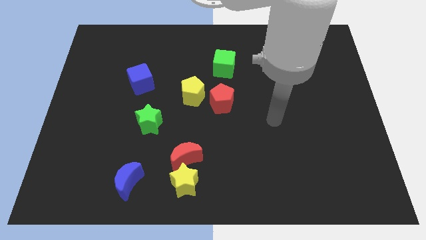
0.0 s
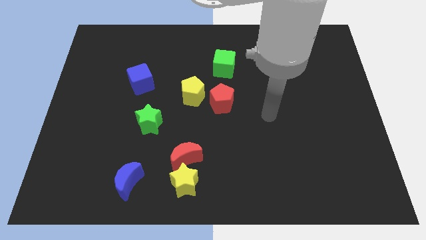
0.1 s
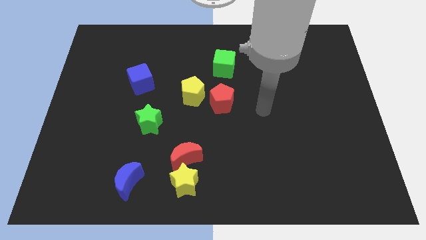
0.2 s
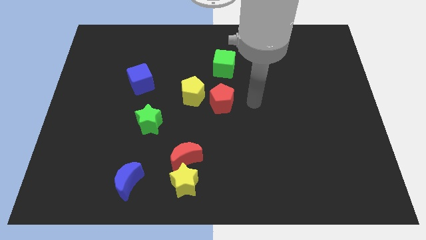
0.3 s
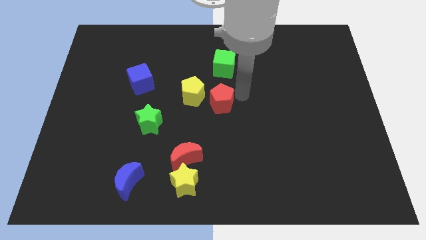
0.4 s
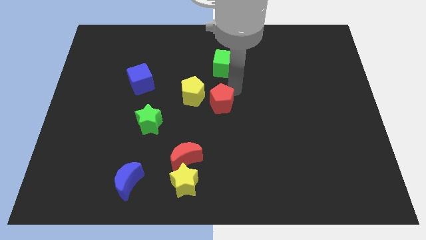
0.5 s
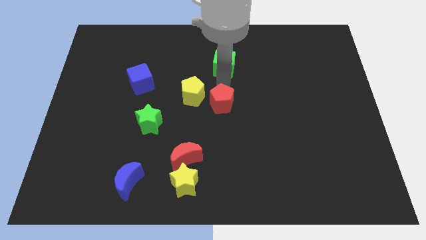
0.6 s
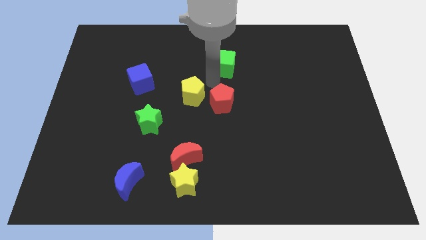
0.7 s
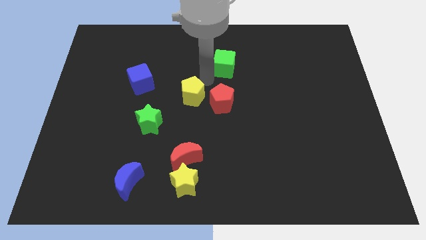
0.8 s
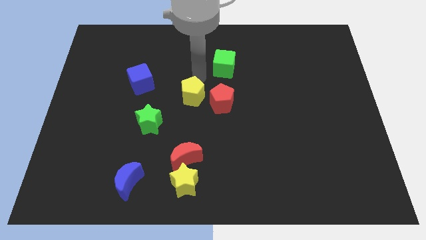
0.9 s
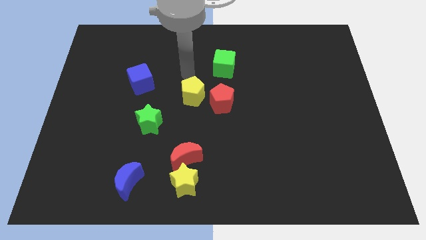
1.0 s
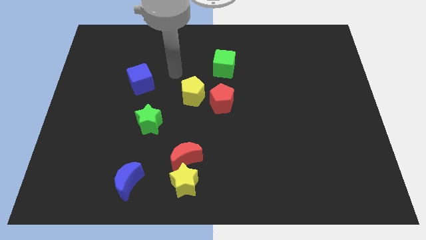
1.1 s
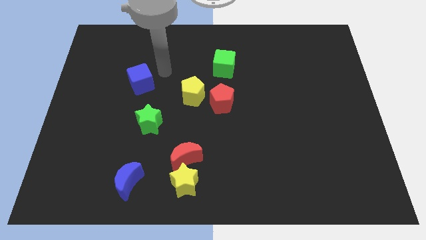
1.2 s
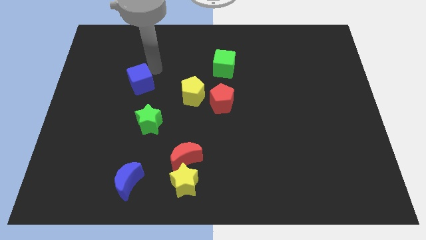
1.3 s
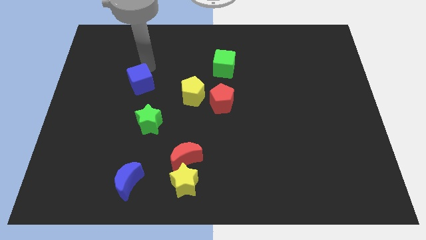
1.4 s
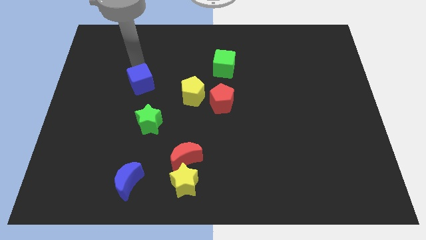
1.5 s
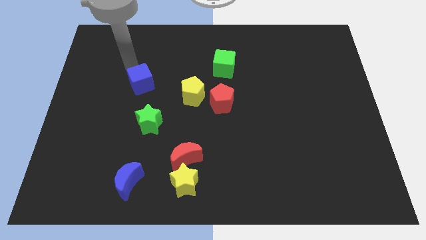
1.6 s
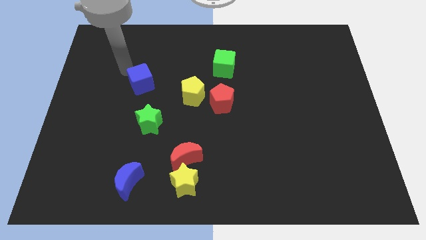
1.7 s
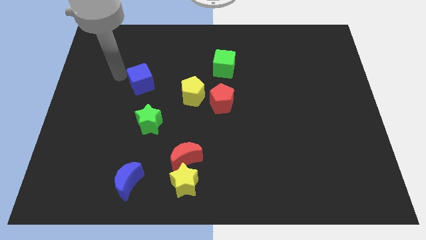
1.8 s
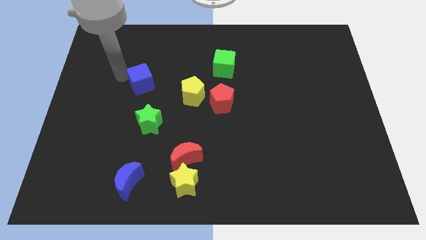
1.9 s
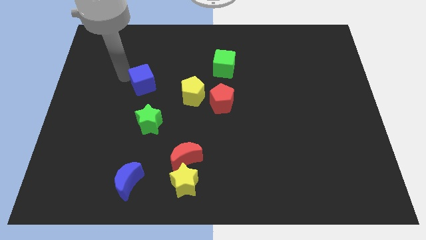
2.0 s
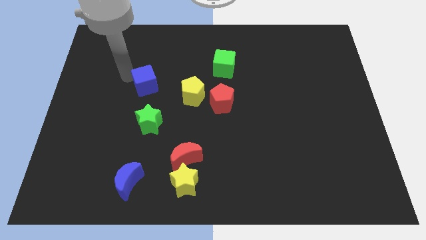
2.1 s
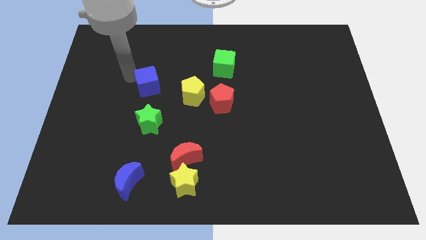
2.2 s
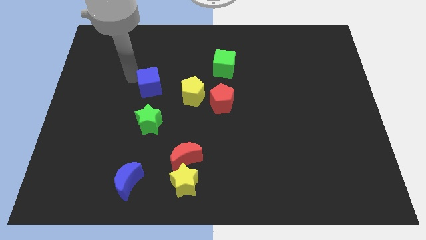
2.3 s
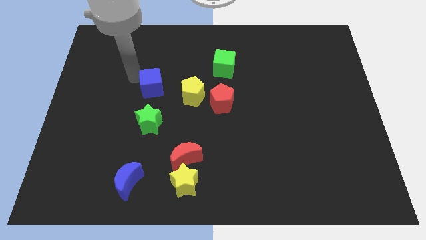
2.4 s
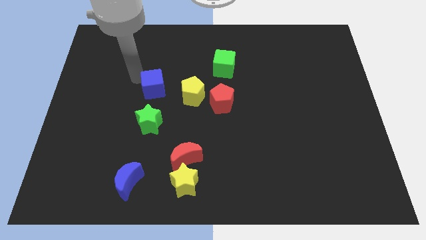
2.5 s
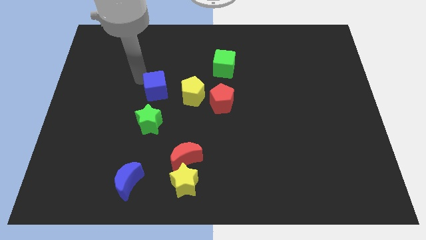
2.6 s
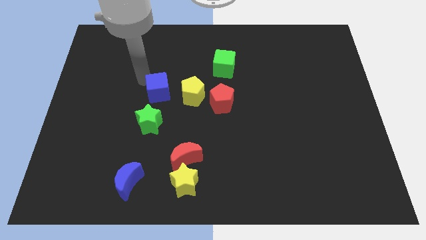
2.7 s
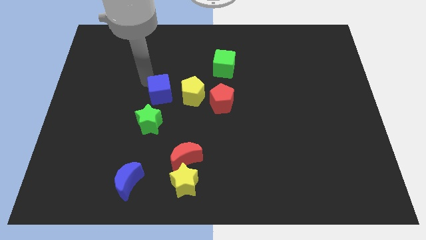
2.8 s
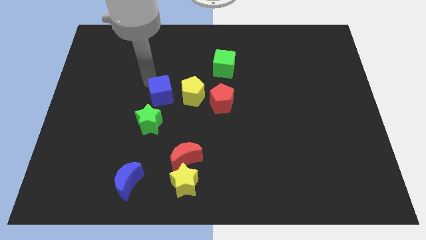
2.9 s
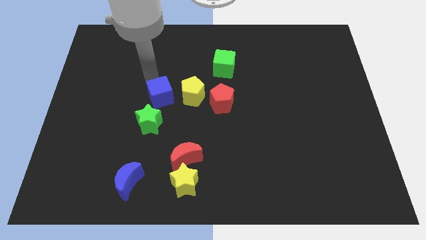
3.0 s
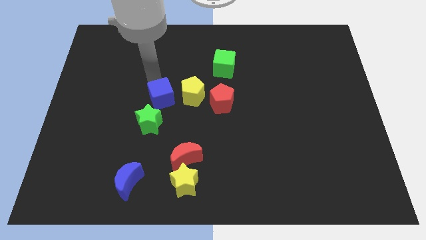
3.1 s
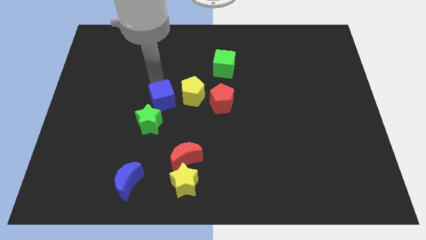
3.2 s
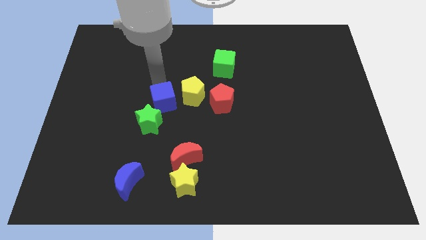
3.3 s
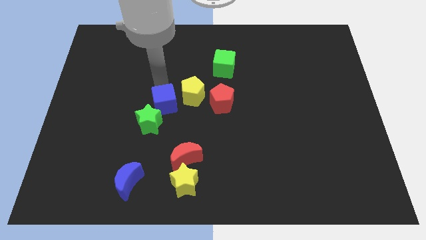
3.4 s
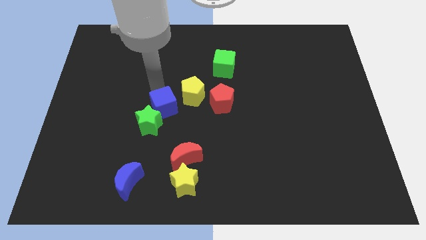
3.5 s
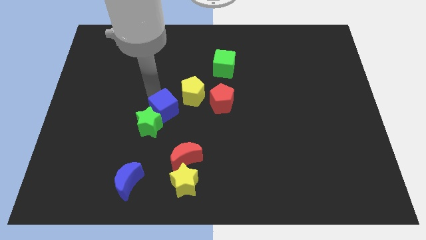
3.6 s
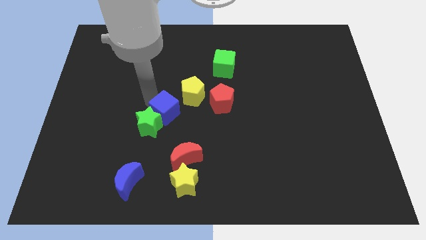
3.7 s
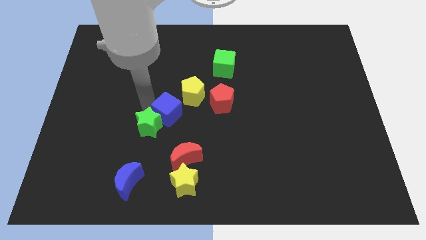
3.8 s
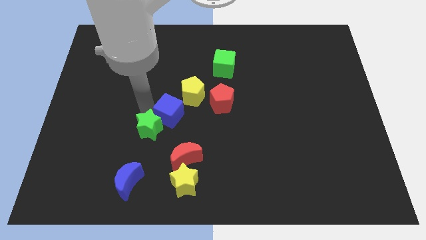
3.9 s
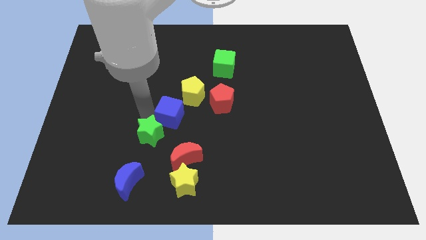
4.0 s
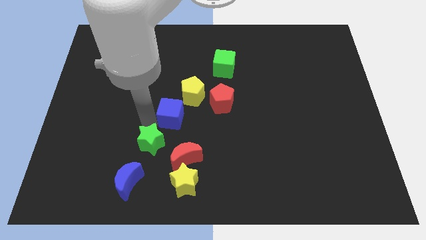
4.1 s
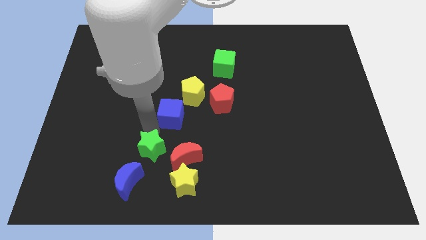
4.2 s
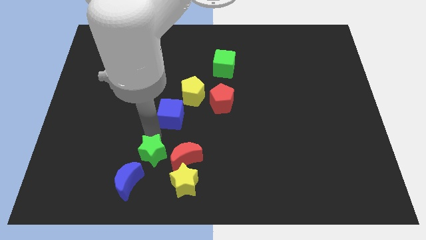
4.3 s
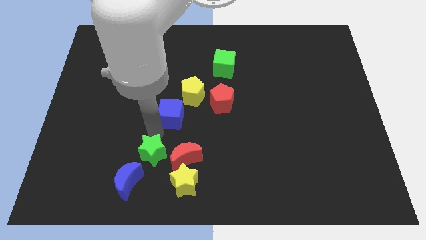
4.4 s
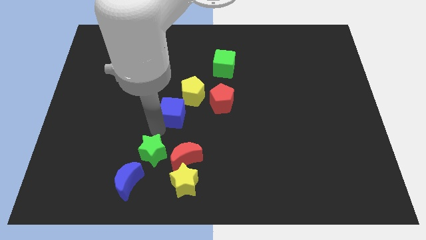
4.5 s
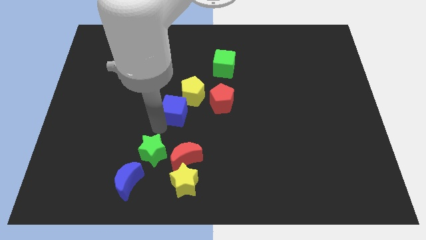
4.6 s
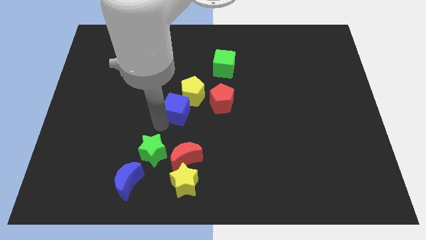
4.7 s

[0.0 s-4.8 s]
put the blue cube next to the yellow pentagon

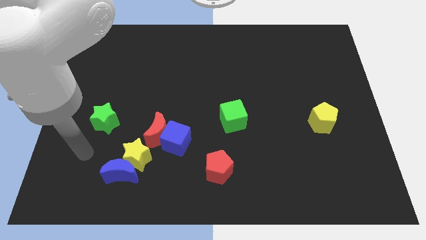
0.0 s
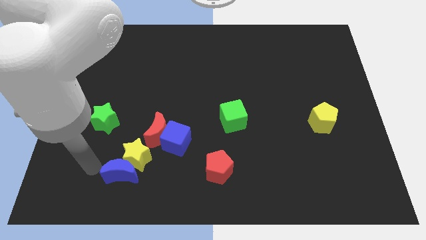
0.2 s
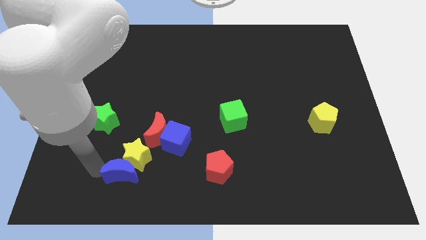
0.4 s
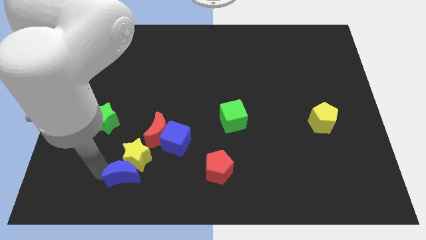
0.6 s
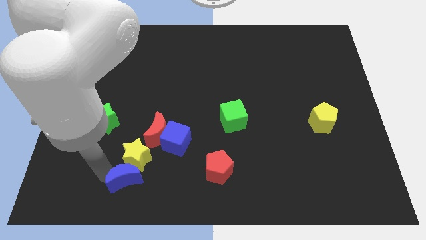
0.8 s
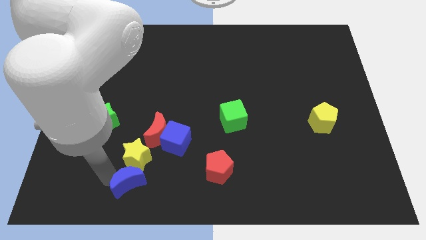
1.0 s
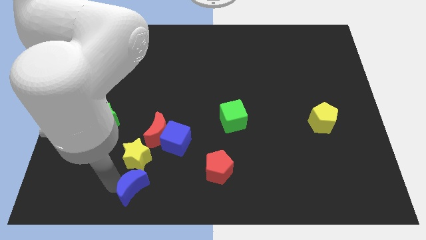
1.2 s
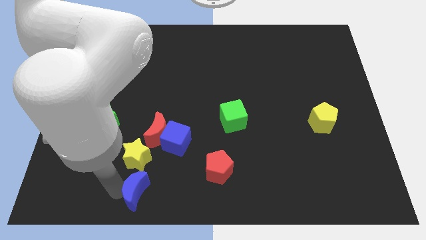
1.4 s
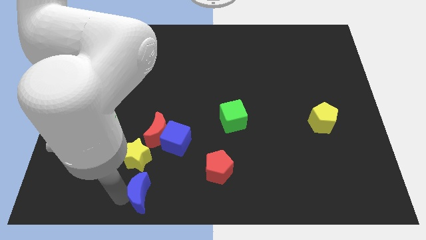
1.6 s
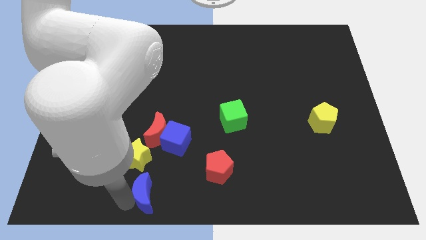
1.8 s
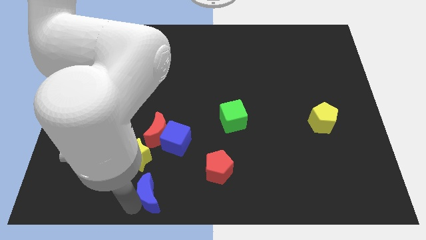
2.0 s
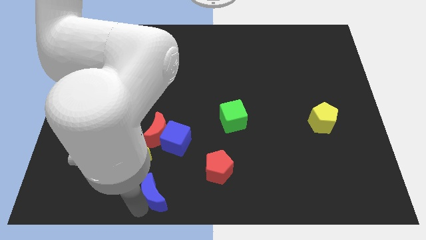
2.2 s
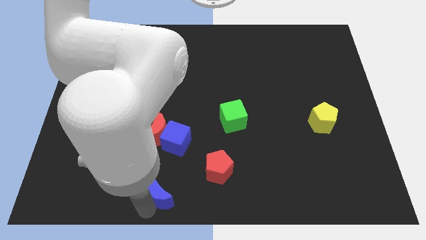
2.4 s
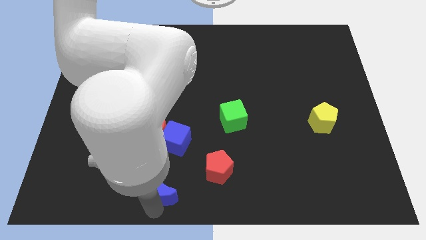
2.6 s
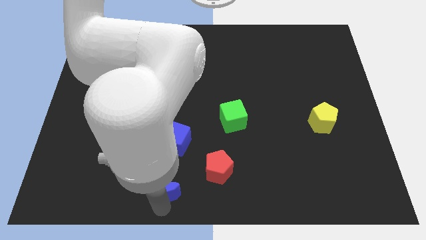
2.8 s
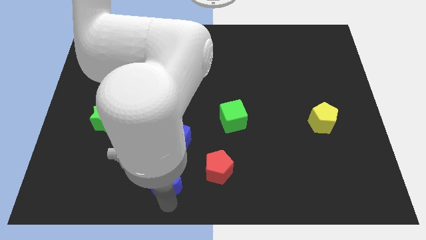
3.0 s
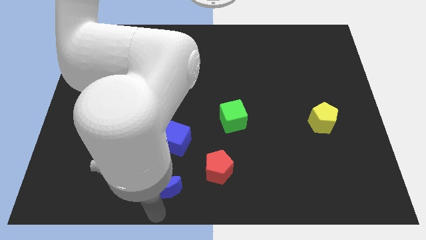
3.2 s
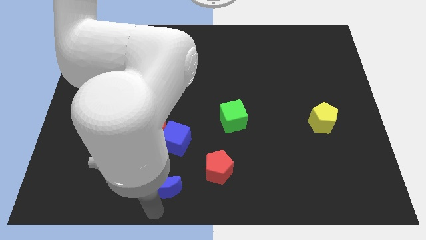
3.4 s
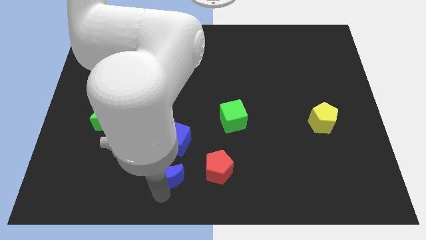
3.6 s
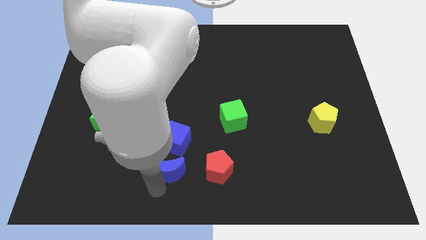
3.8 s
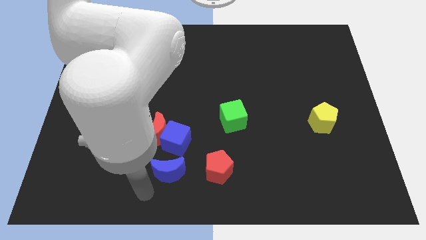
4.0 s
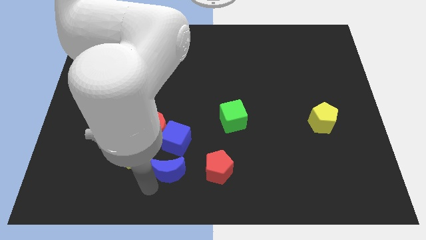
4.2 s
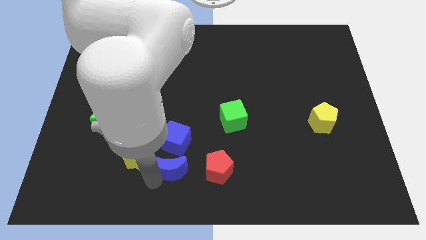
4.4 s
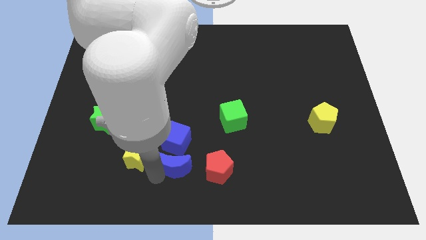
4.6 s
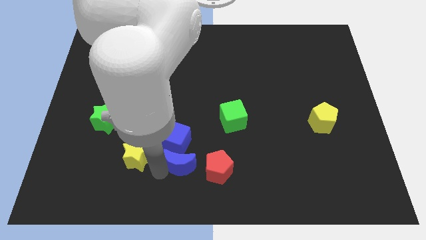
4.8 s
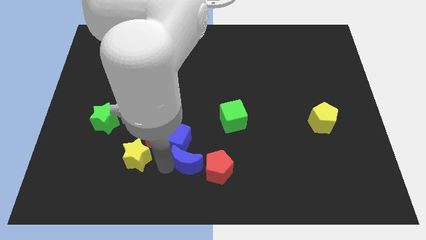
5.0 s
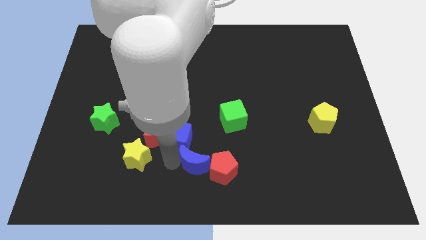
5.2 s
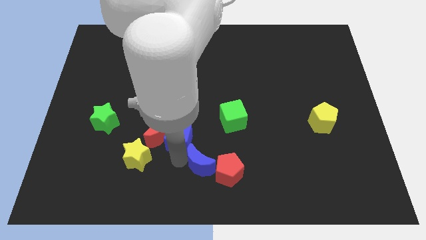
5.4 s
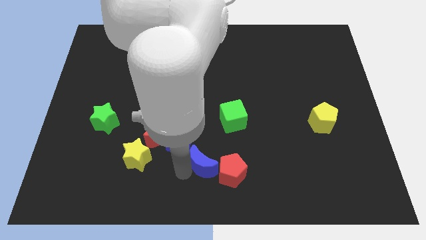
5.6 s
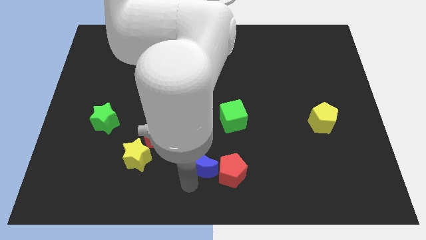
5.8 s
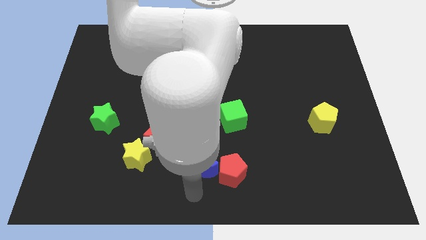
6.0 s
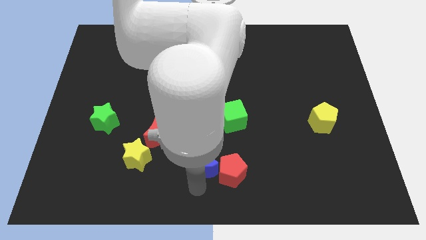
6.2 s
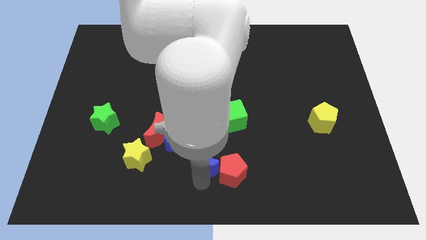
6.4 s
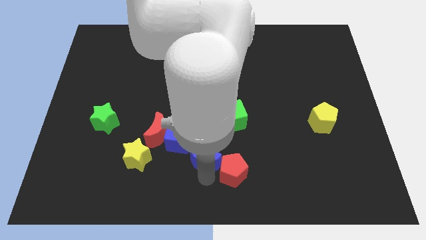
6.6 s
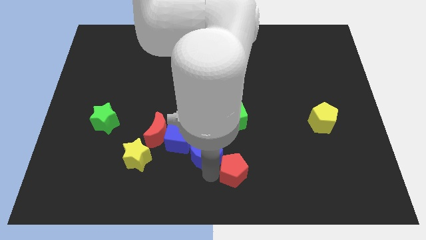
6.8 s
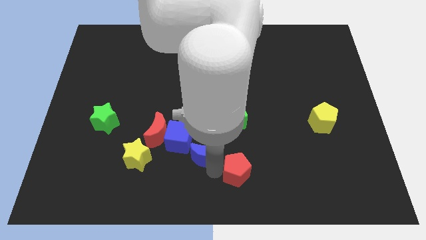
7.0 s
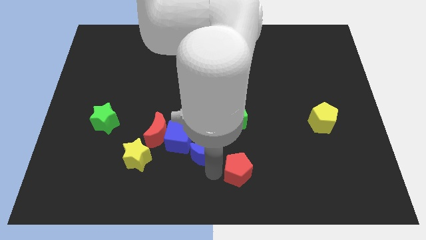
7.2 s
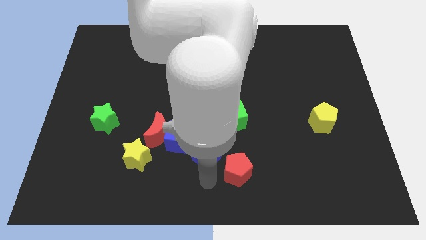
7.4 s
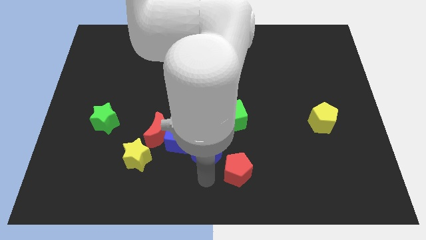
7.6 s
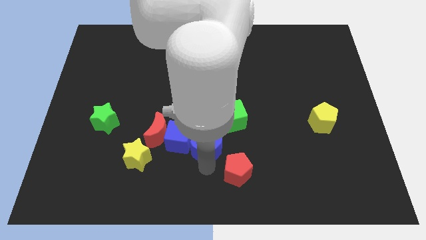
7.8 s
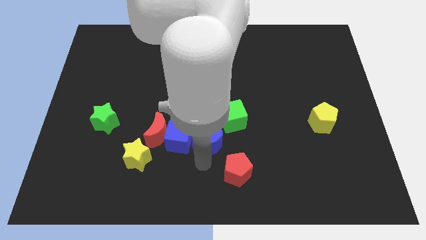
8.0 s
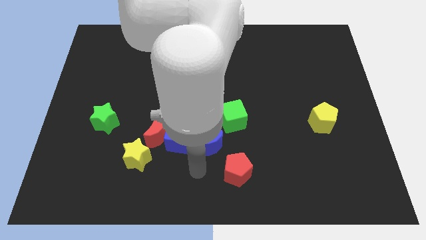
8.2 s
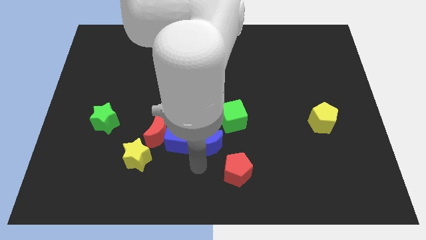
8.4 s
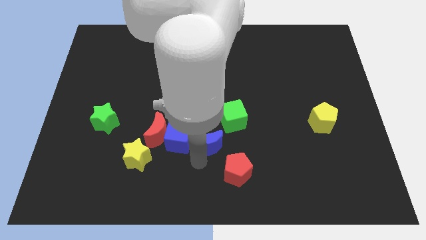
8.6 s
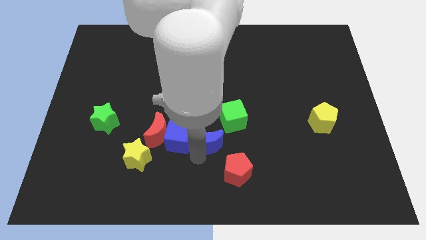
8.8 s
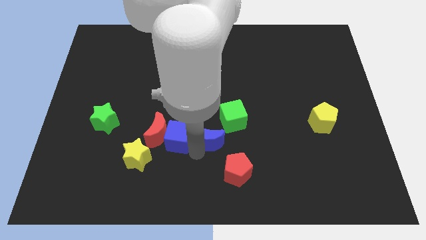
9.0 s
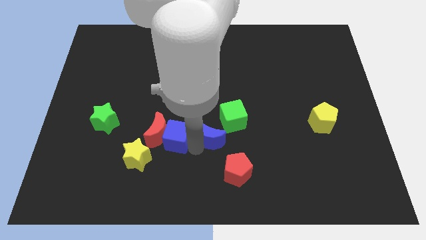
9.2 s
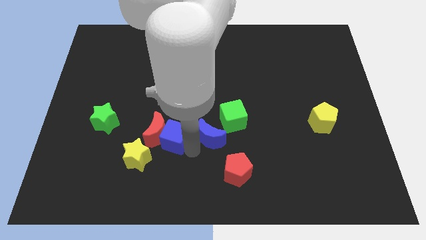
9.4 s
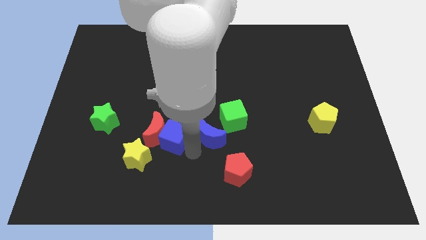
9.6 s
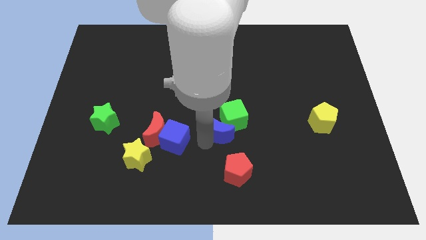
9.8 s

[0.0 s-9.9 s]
put the blue moon close to the green cube
